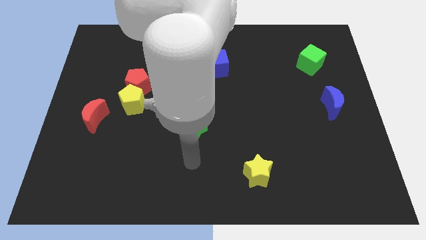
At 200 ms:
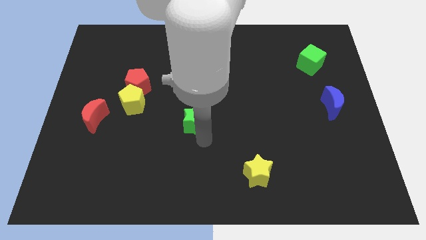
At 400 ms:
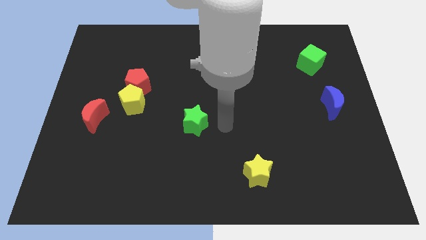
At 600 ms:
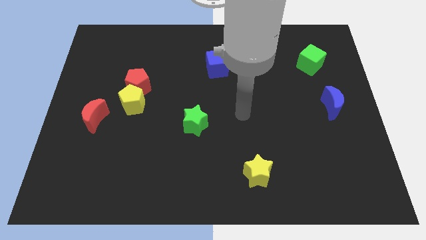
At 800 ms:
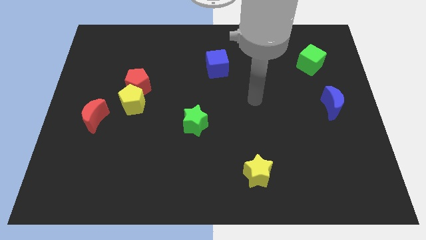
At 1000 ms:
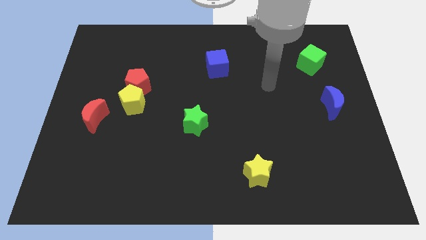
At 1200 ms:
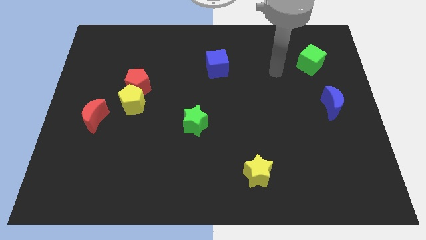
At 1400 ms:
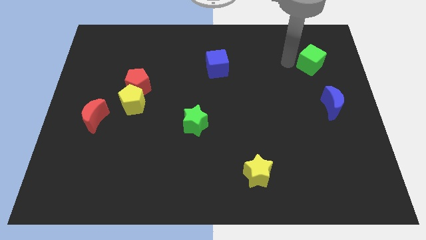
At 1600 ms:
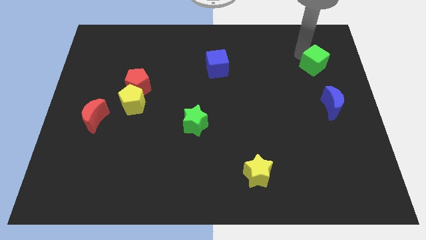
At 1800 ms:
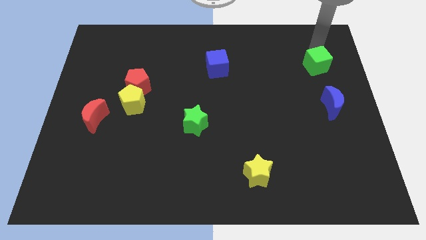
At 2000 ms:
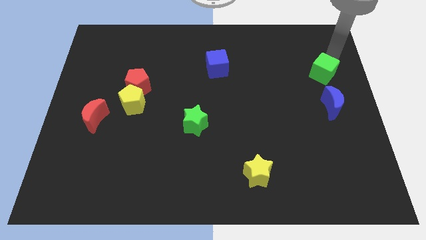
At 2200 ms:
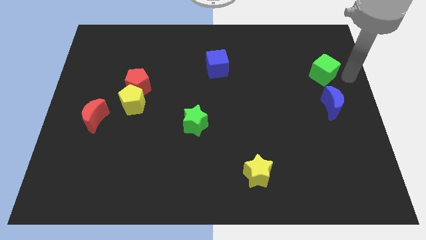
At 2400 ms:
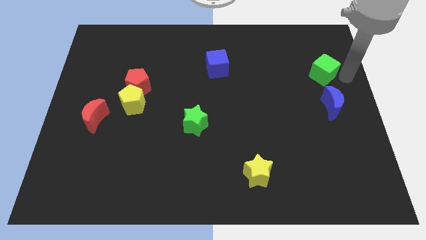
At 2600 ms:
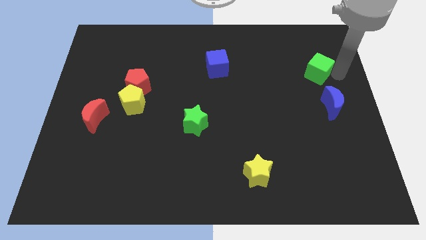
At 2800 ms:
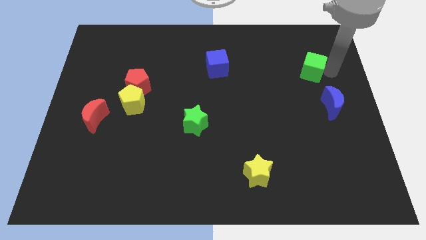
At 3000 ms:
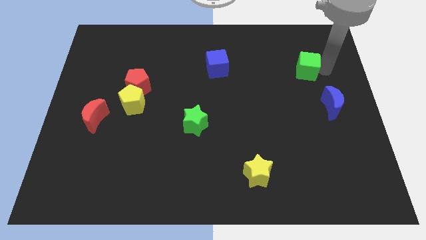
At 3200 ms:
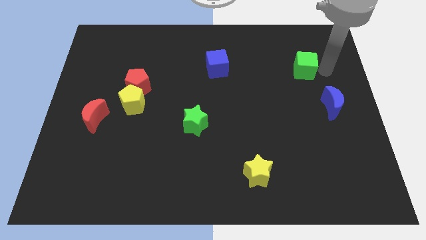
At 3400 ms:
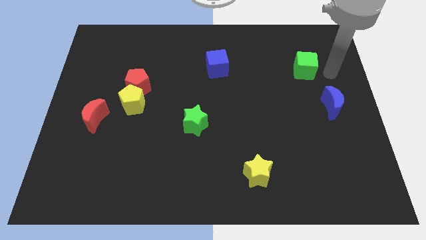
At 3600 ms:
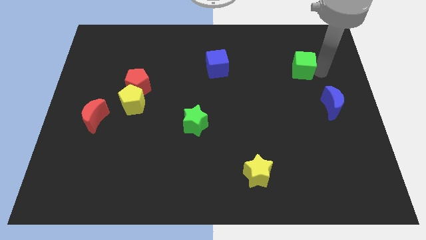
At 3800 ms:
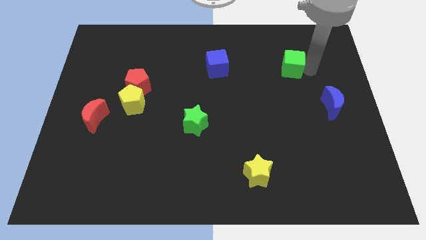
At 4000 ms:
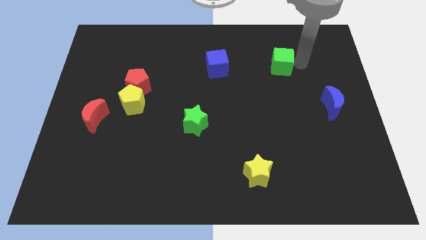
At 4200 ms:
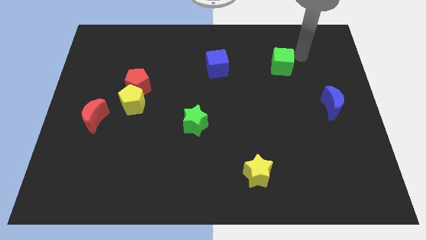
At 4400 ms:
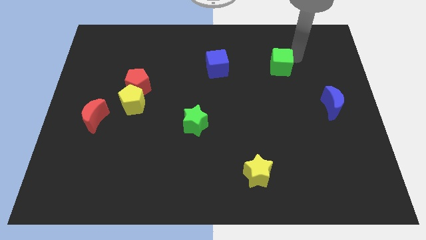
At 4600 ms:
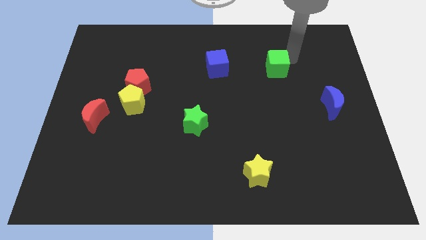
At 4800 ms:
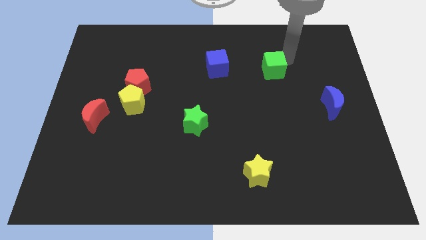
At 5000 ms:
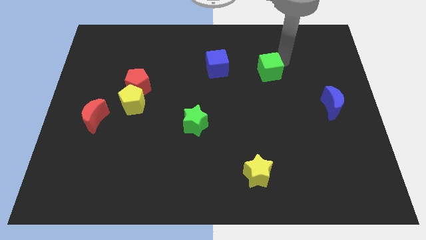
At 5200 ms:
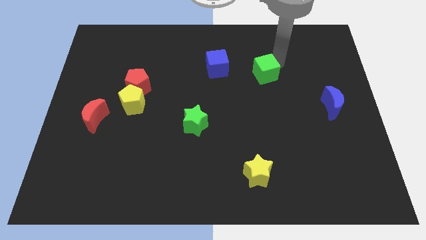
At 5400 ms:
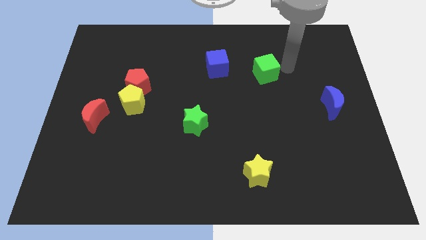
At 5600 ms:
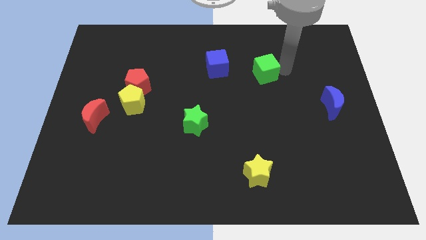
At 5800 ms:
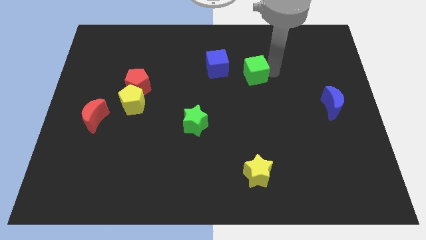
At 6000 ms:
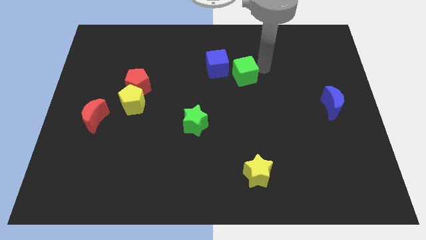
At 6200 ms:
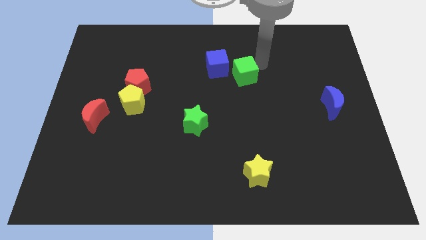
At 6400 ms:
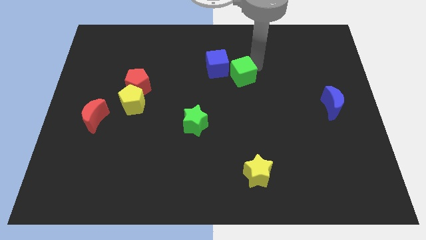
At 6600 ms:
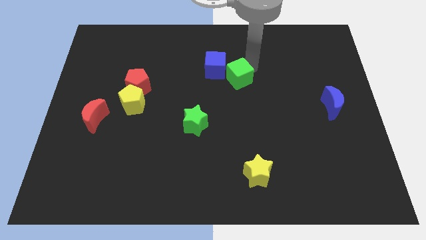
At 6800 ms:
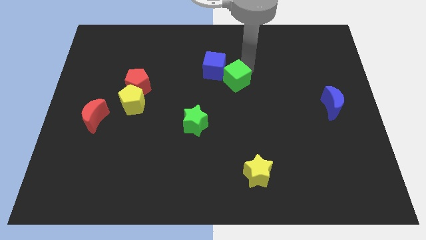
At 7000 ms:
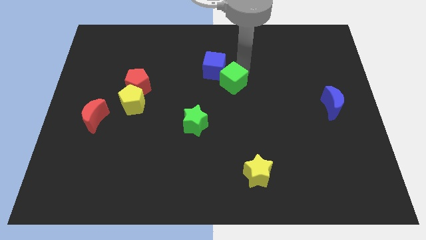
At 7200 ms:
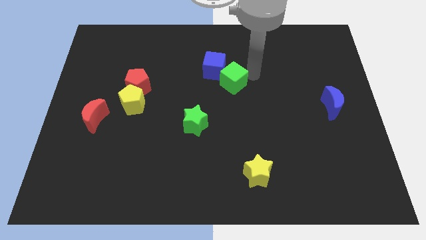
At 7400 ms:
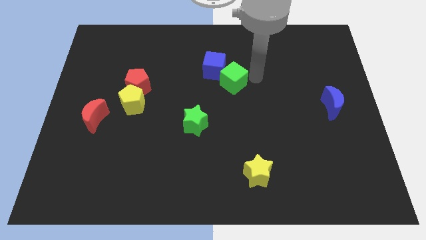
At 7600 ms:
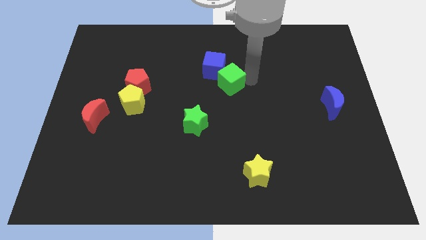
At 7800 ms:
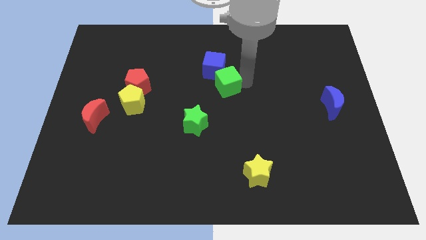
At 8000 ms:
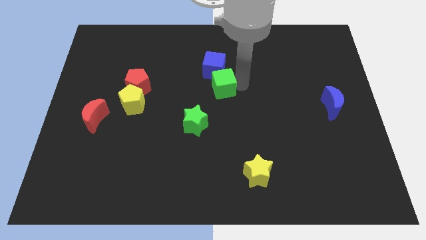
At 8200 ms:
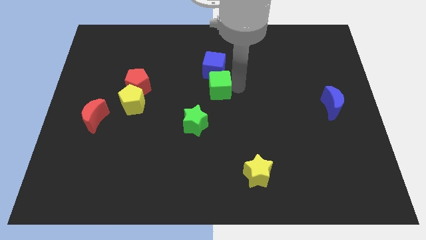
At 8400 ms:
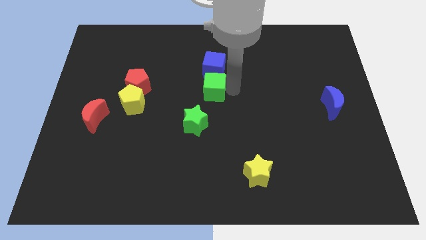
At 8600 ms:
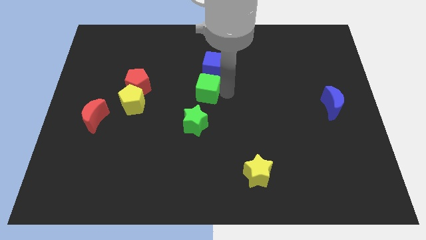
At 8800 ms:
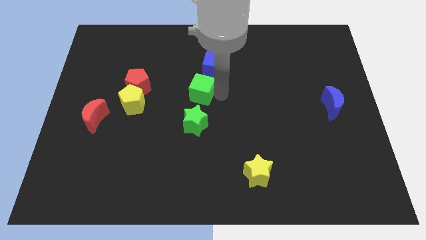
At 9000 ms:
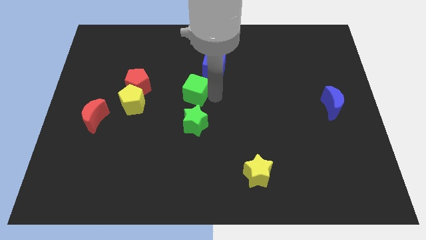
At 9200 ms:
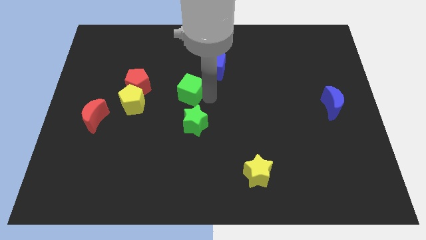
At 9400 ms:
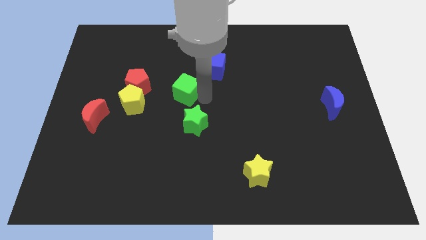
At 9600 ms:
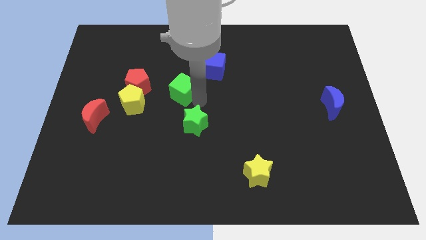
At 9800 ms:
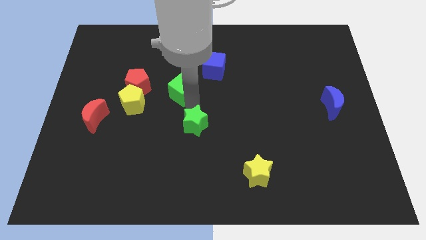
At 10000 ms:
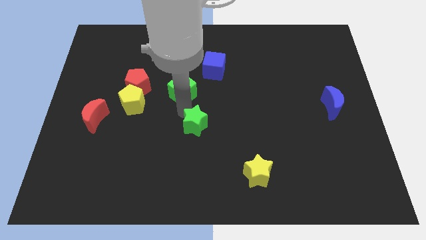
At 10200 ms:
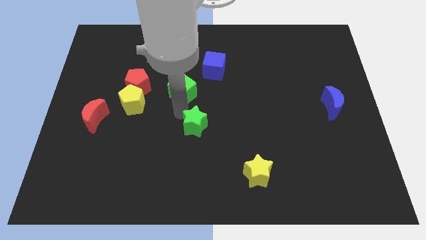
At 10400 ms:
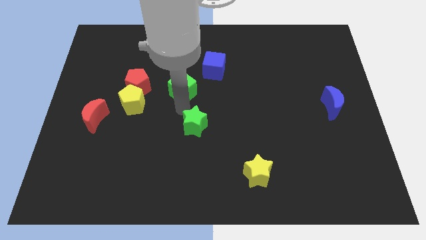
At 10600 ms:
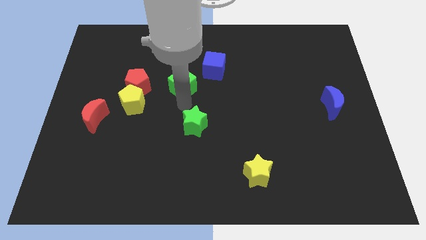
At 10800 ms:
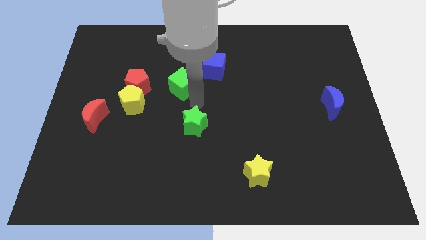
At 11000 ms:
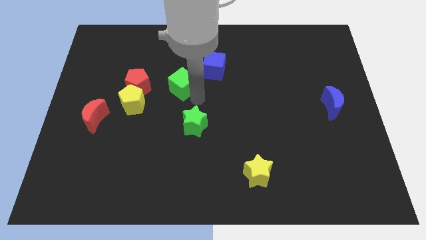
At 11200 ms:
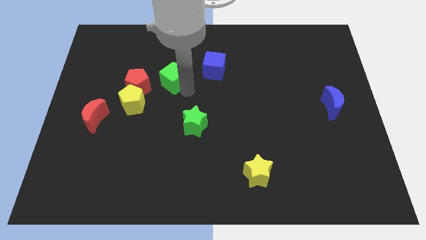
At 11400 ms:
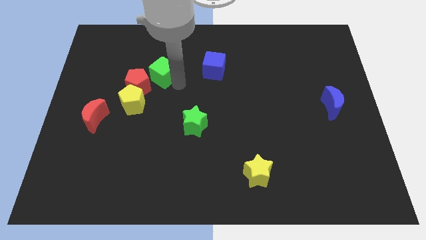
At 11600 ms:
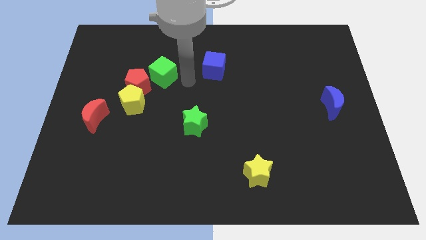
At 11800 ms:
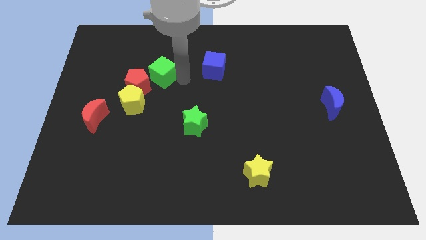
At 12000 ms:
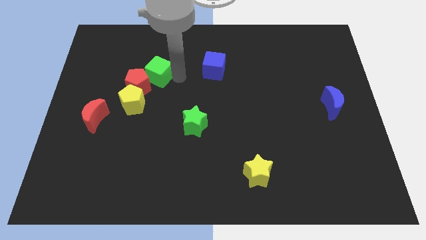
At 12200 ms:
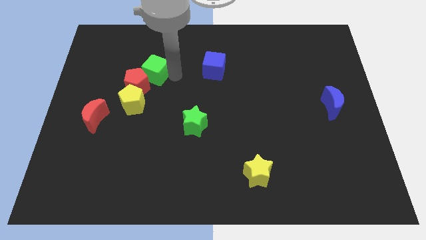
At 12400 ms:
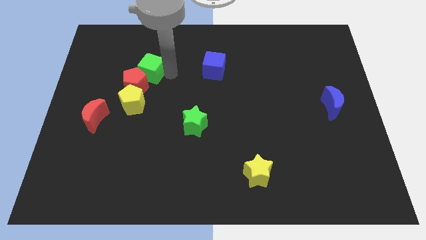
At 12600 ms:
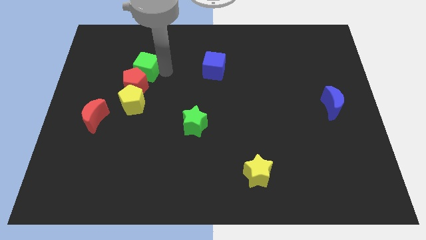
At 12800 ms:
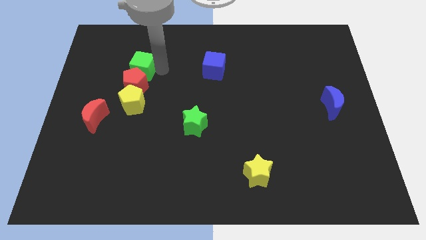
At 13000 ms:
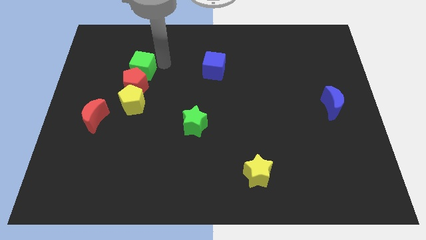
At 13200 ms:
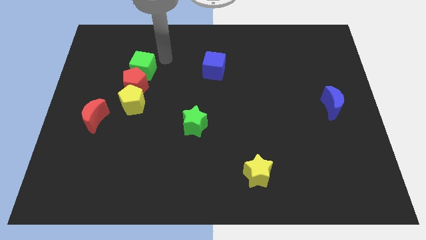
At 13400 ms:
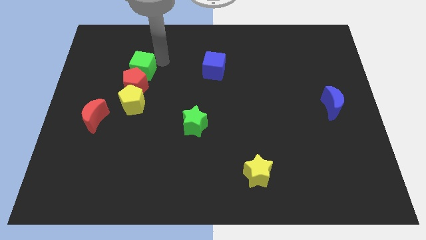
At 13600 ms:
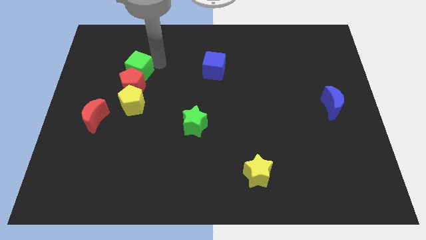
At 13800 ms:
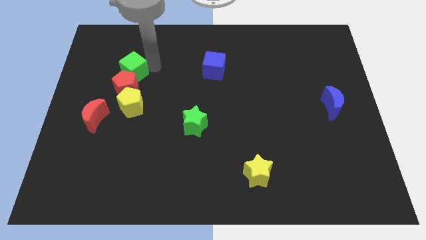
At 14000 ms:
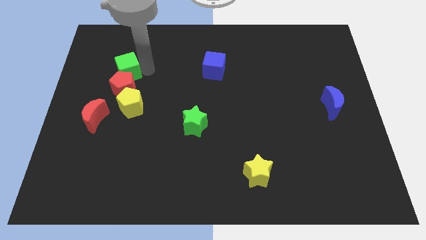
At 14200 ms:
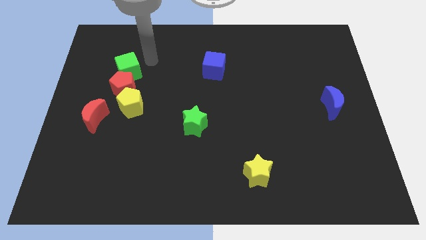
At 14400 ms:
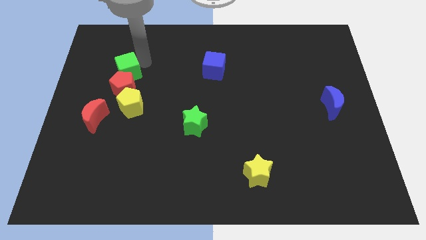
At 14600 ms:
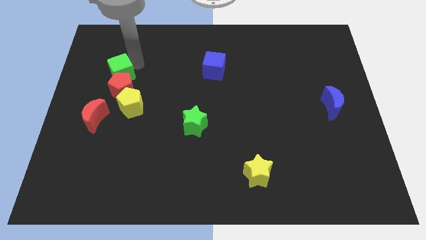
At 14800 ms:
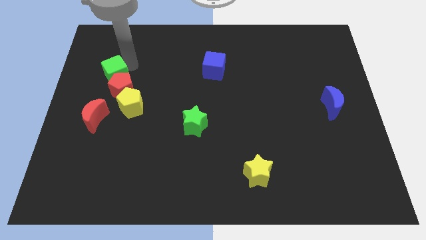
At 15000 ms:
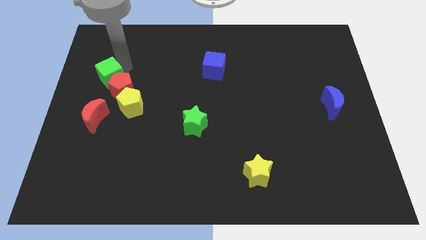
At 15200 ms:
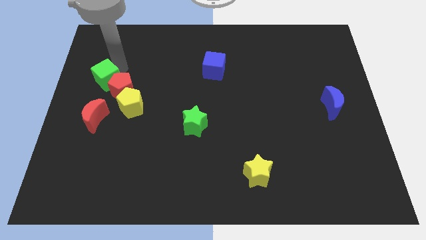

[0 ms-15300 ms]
slide the green cube to the left side
